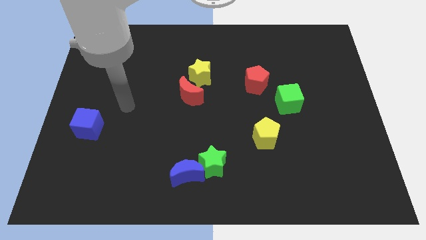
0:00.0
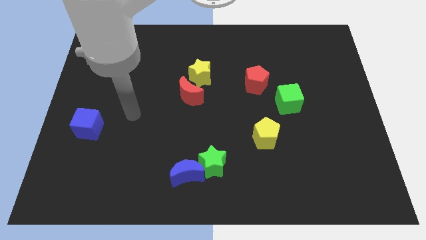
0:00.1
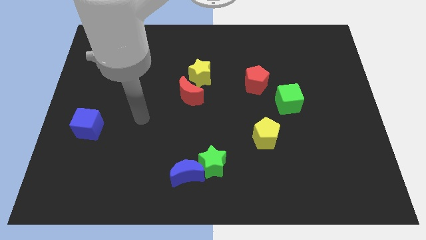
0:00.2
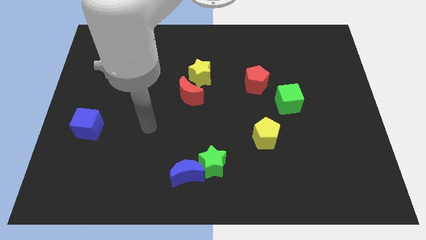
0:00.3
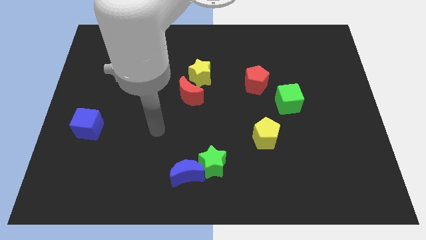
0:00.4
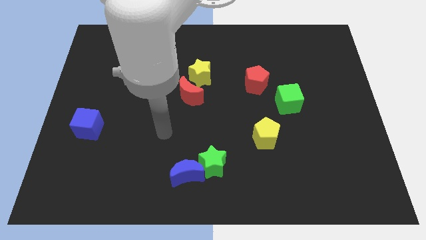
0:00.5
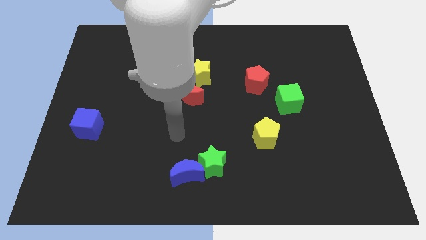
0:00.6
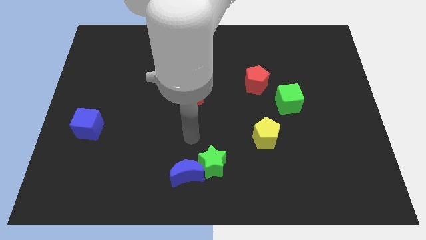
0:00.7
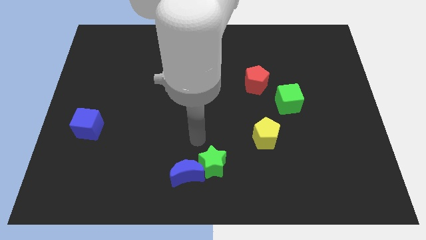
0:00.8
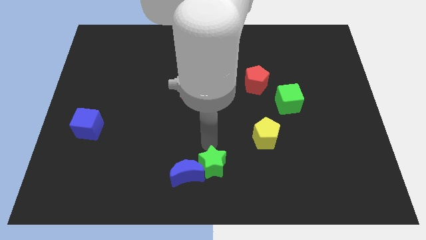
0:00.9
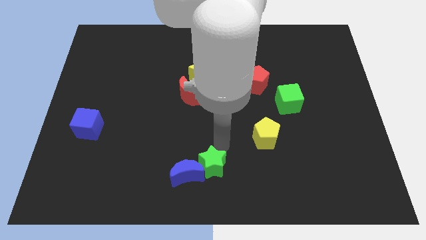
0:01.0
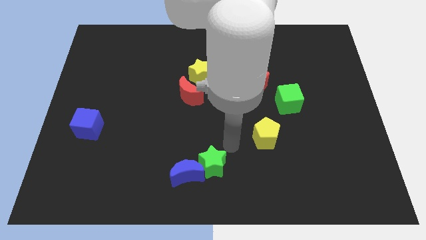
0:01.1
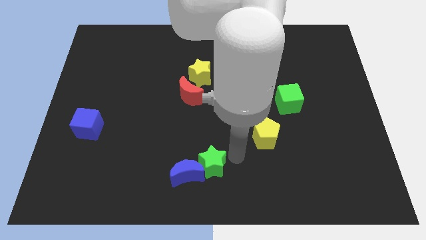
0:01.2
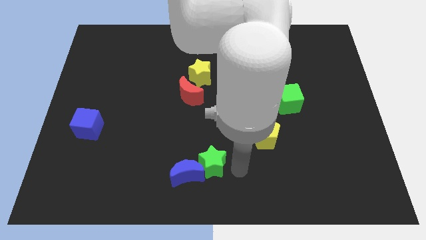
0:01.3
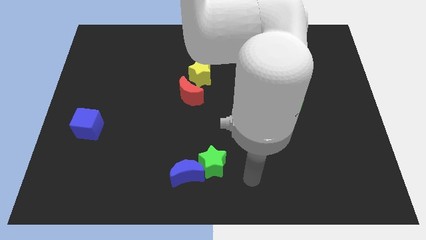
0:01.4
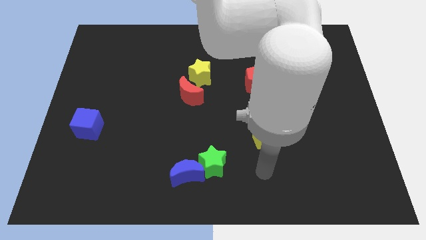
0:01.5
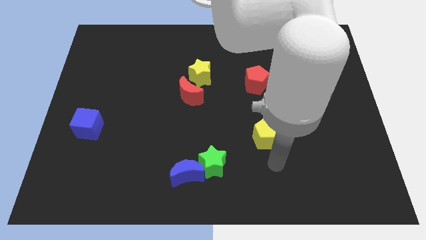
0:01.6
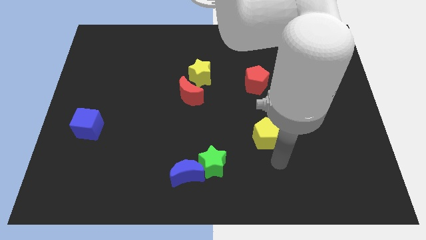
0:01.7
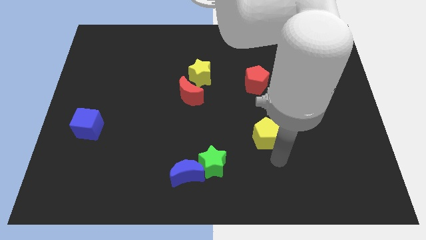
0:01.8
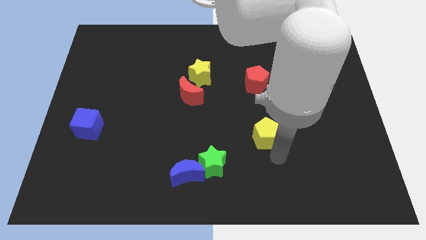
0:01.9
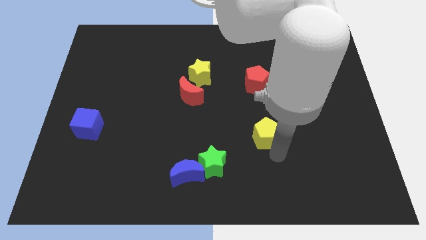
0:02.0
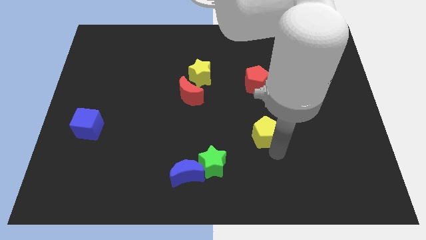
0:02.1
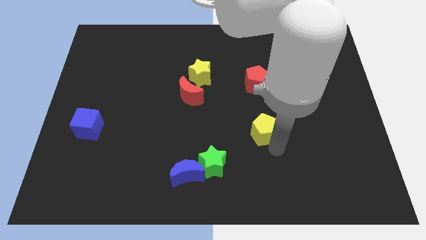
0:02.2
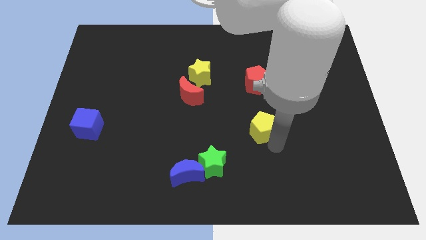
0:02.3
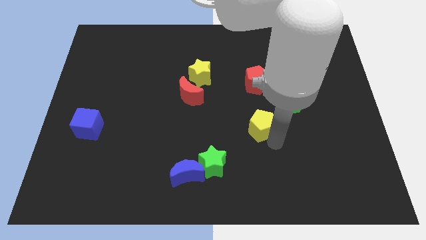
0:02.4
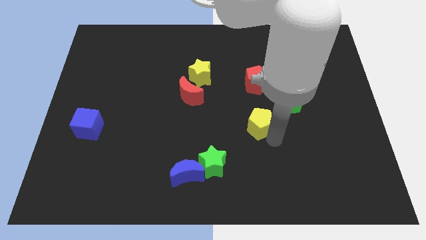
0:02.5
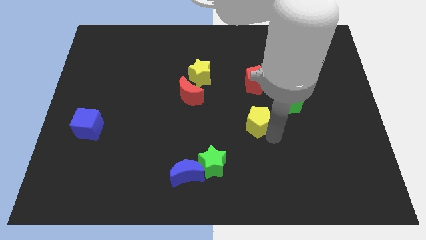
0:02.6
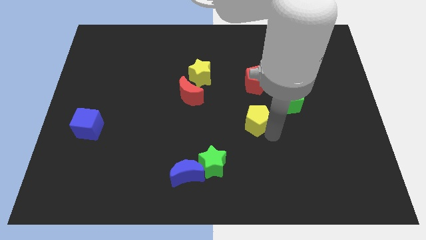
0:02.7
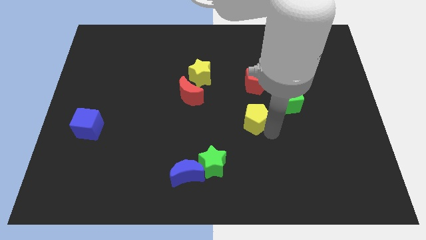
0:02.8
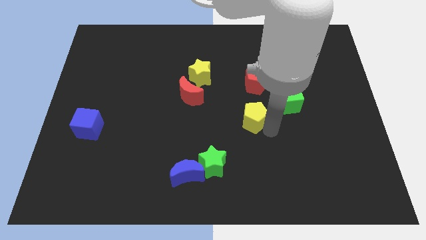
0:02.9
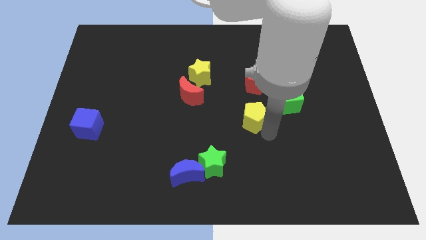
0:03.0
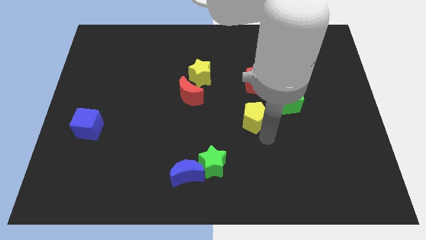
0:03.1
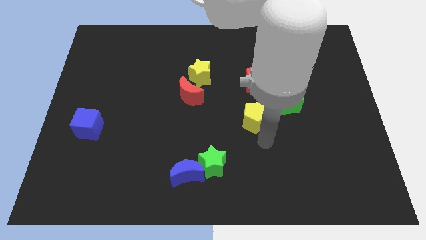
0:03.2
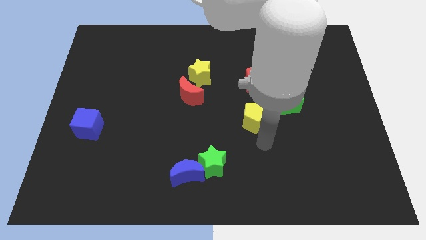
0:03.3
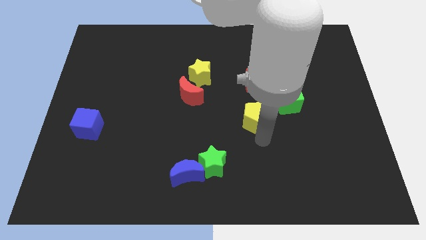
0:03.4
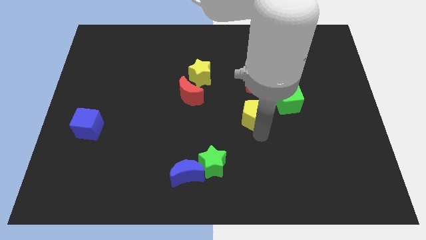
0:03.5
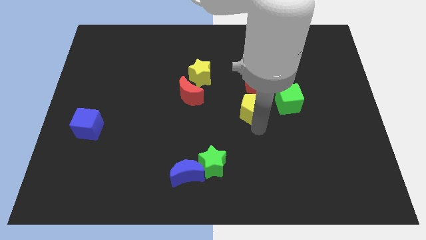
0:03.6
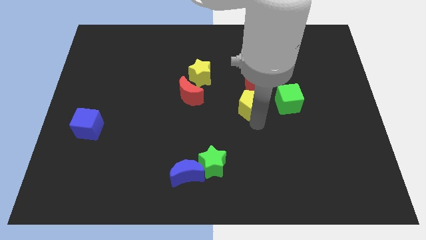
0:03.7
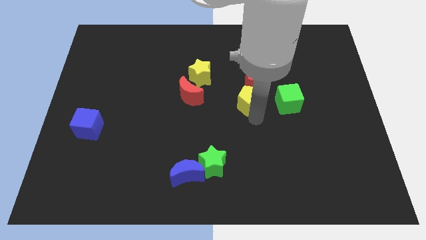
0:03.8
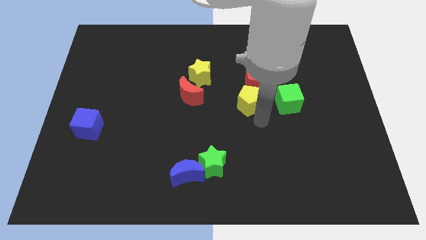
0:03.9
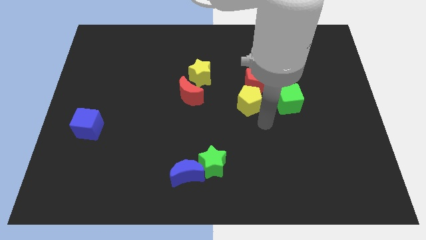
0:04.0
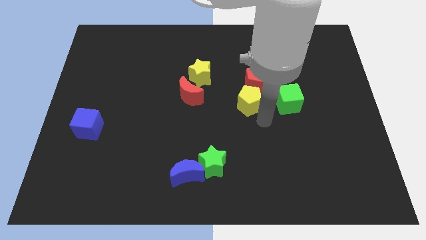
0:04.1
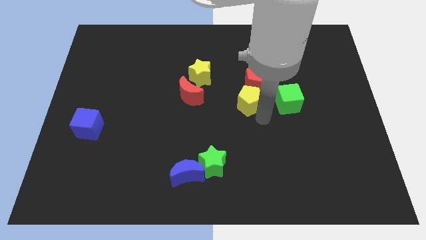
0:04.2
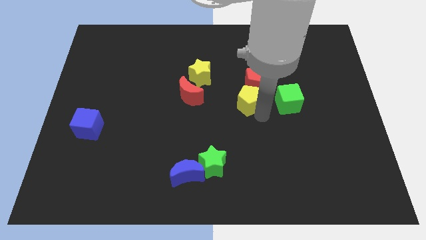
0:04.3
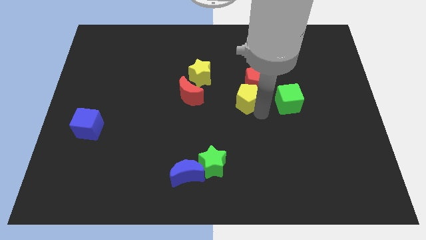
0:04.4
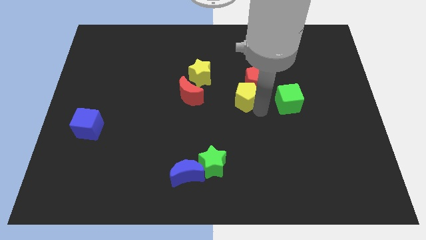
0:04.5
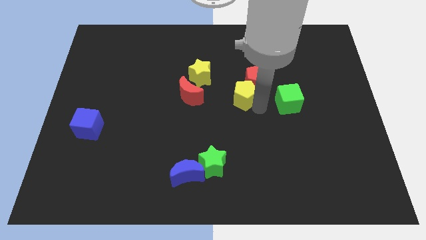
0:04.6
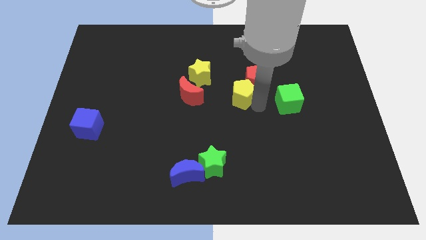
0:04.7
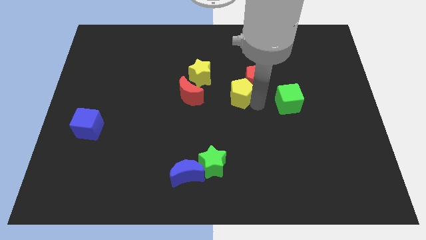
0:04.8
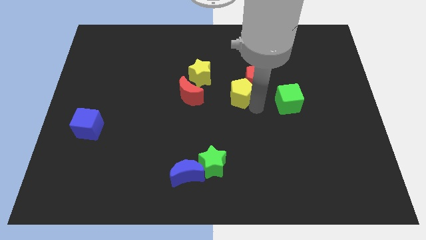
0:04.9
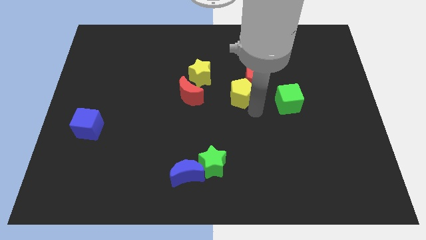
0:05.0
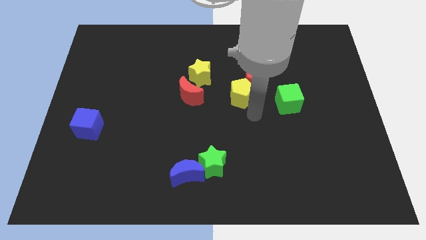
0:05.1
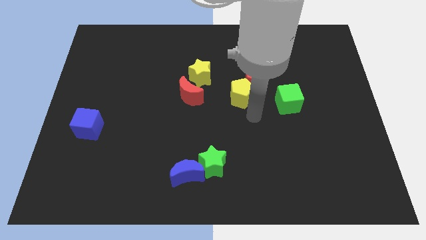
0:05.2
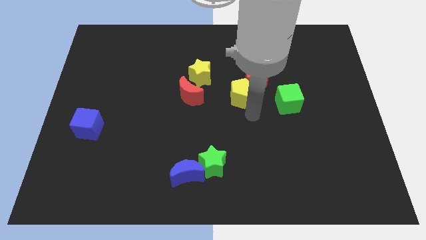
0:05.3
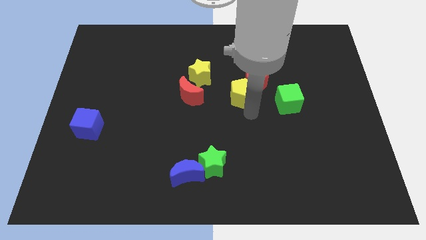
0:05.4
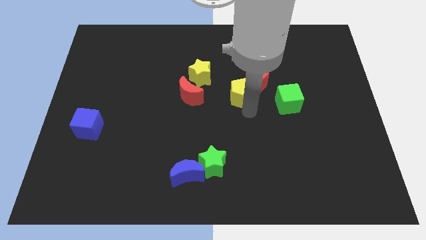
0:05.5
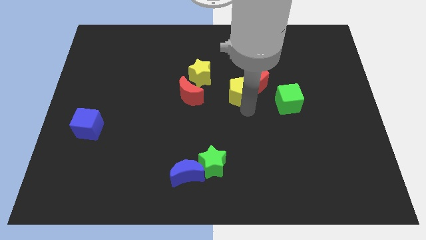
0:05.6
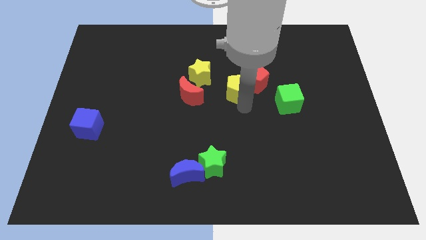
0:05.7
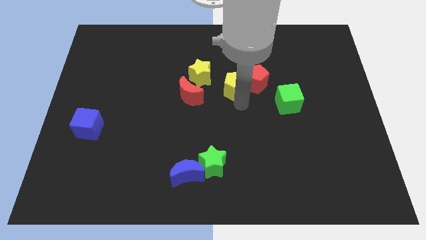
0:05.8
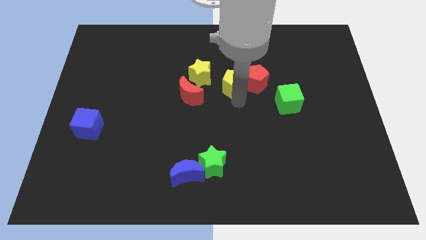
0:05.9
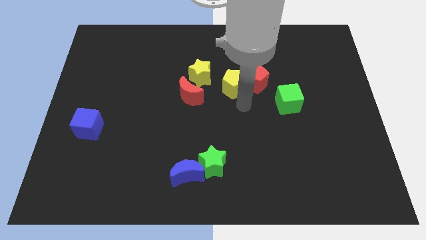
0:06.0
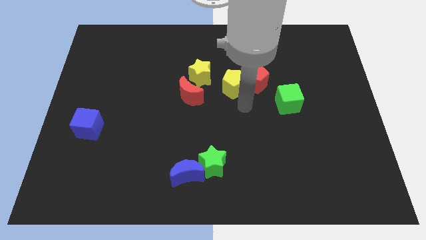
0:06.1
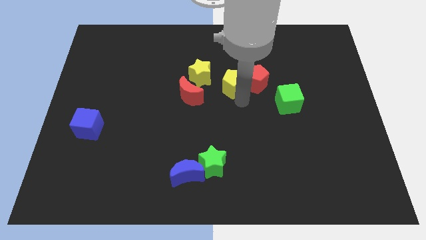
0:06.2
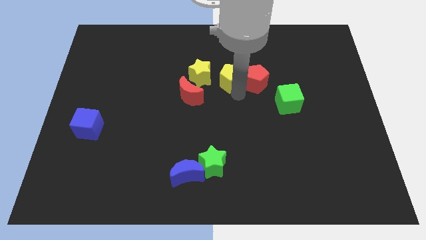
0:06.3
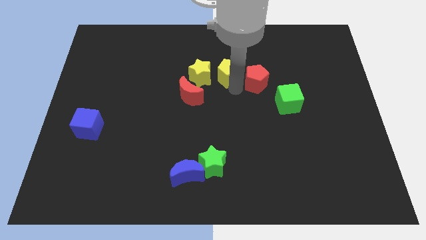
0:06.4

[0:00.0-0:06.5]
move the yellow pentagon to the top right of the yellow star

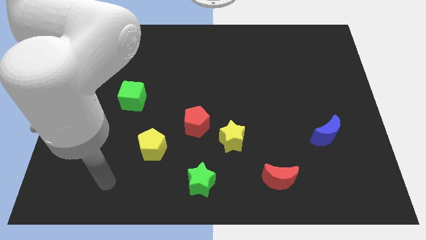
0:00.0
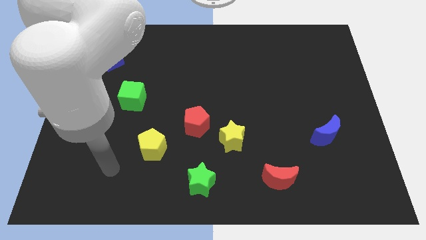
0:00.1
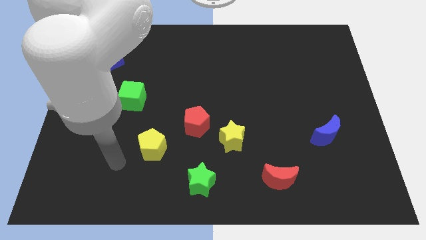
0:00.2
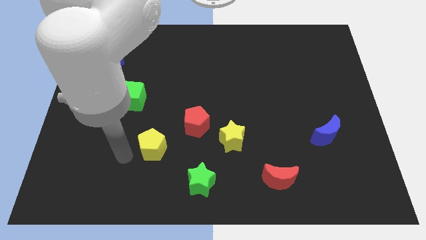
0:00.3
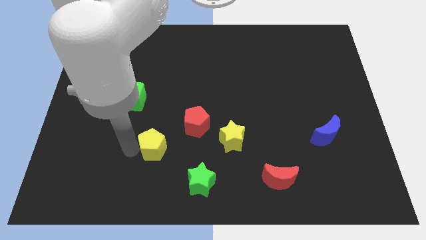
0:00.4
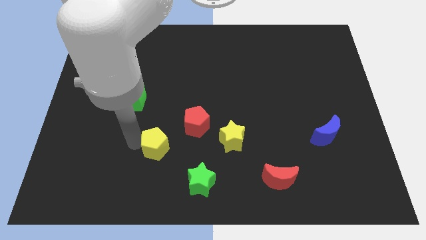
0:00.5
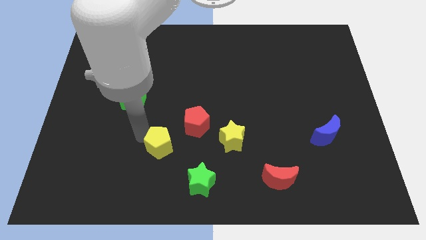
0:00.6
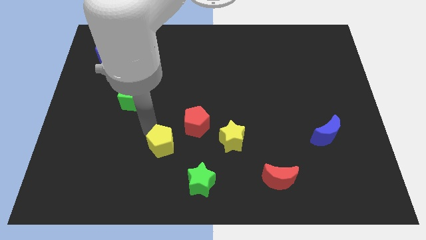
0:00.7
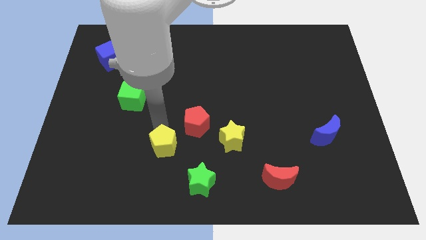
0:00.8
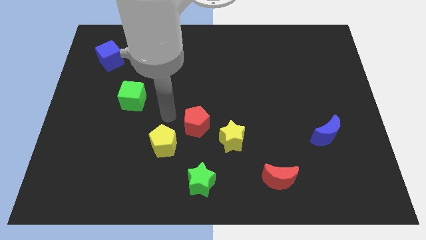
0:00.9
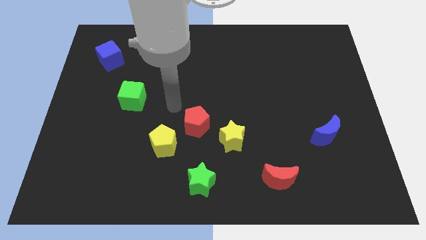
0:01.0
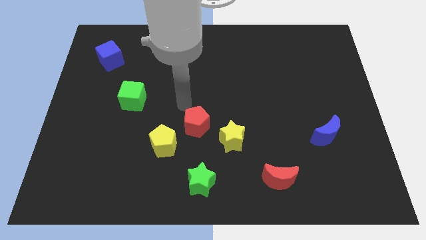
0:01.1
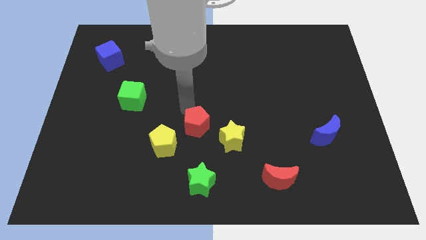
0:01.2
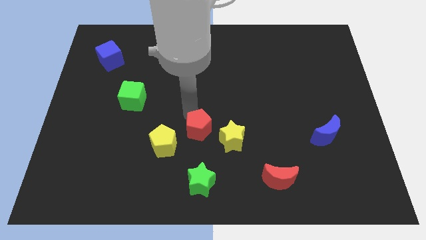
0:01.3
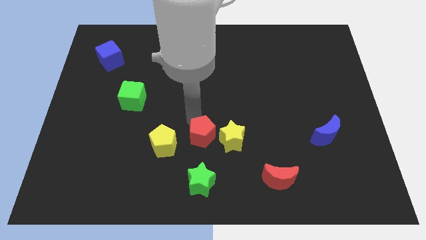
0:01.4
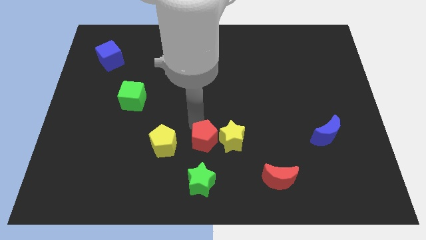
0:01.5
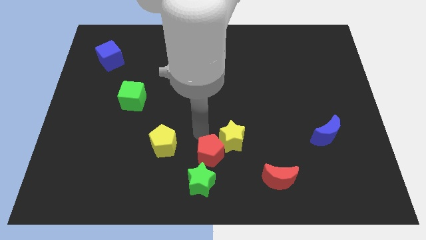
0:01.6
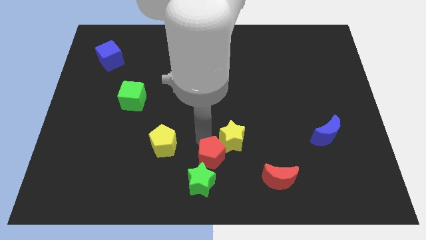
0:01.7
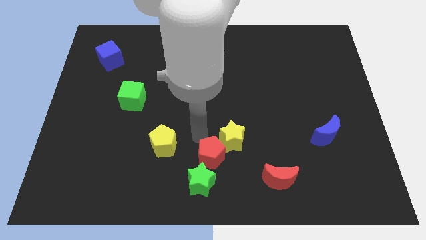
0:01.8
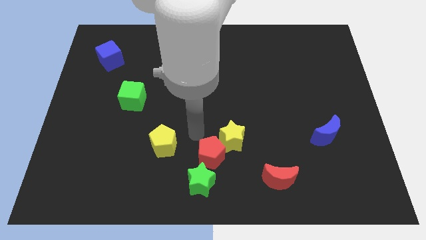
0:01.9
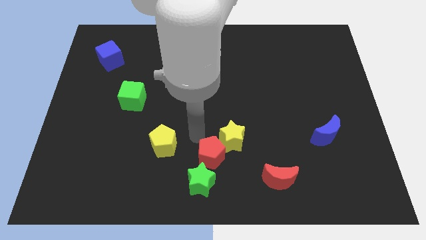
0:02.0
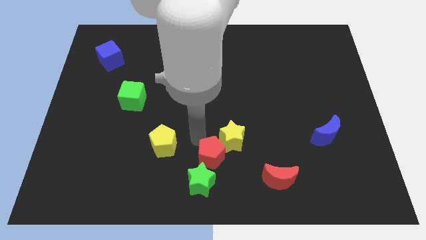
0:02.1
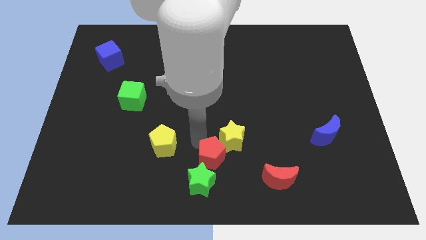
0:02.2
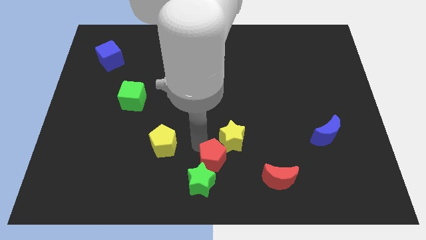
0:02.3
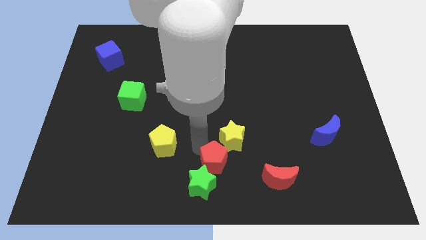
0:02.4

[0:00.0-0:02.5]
push the red pentagon just left of the red moon
